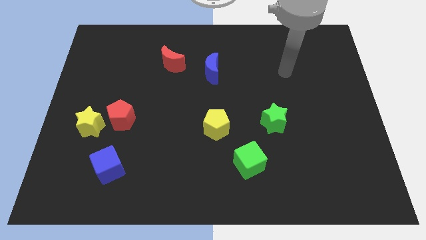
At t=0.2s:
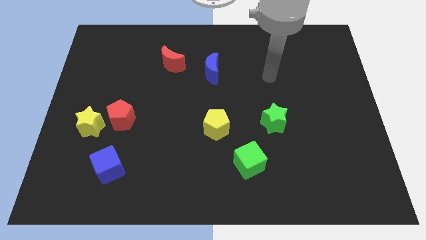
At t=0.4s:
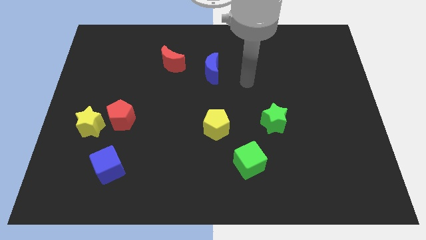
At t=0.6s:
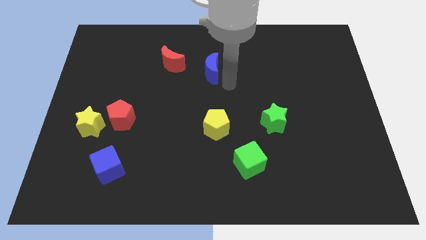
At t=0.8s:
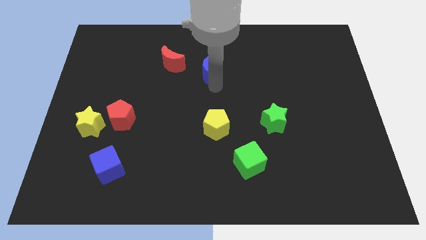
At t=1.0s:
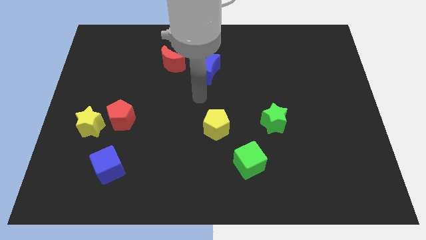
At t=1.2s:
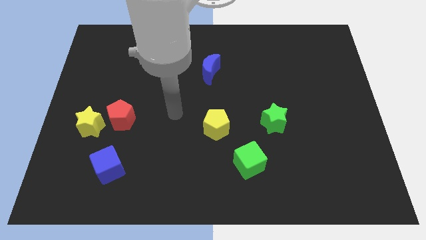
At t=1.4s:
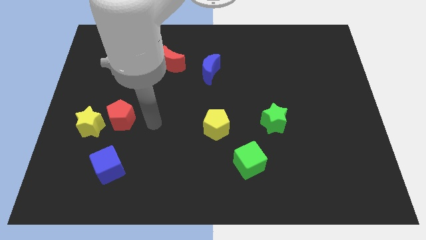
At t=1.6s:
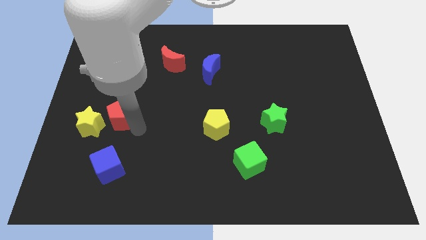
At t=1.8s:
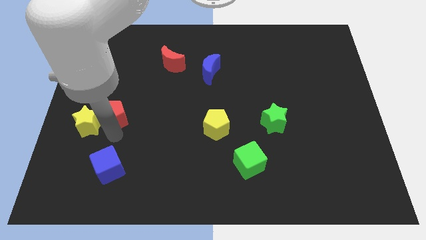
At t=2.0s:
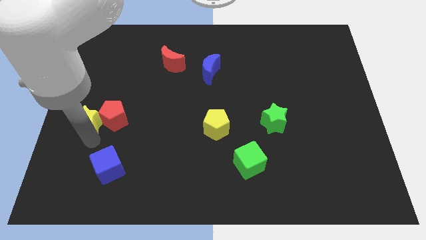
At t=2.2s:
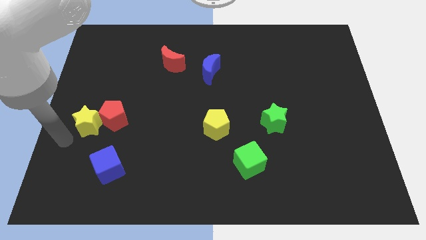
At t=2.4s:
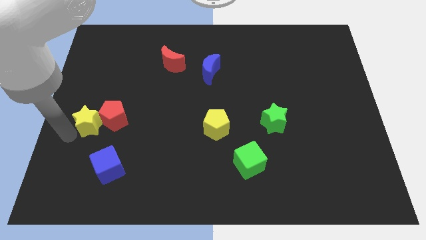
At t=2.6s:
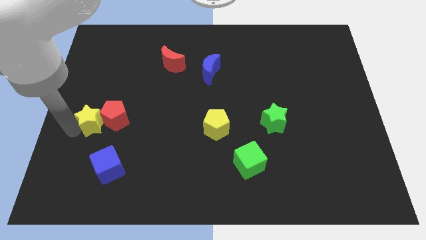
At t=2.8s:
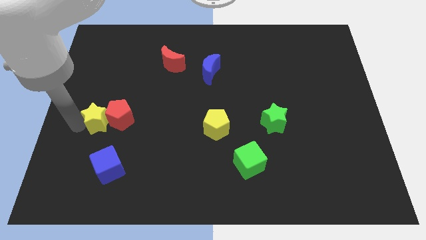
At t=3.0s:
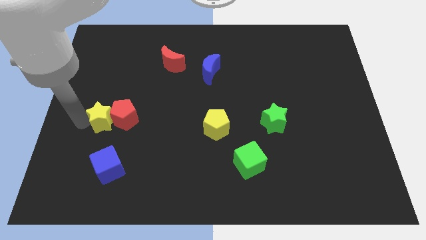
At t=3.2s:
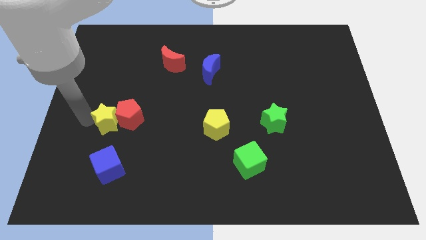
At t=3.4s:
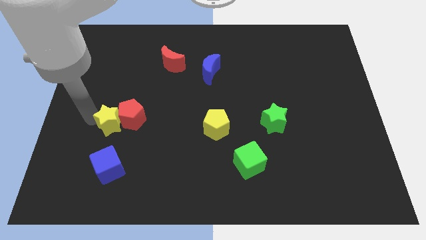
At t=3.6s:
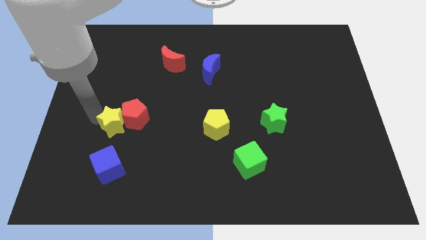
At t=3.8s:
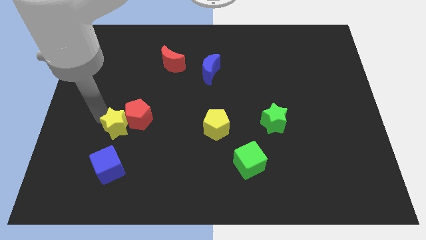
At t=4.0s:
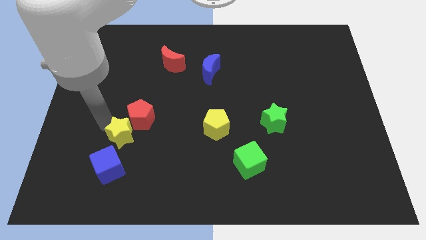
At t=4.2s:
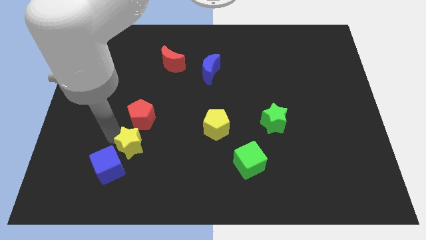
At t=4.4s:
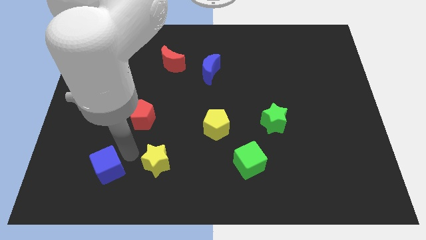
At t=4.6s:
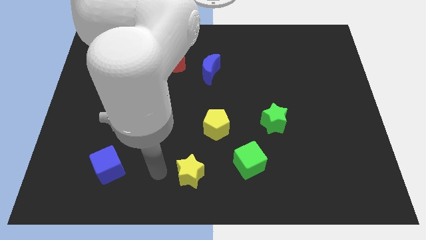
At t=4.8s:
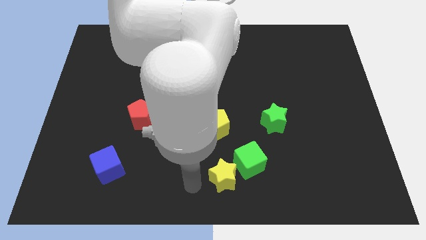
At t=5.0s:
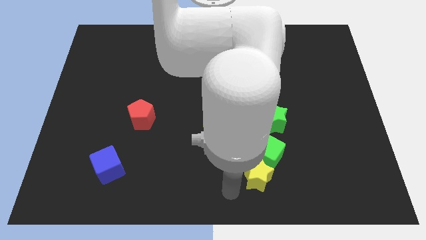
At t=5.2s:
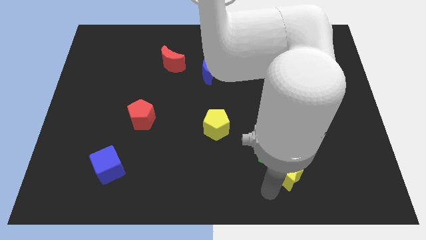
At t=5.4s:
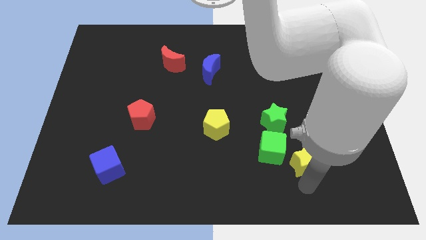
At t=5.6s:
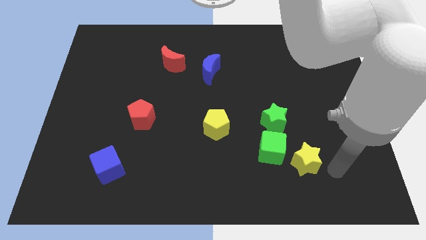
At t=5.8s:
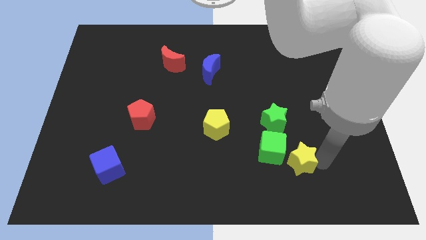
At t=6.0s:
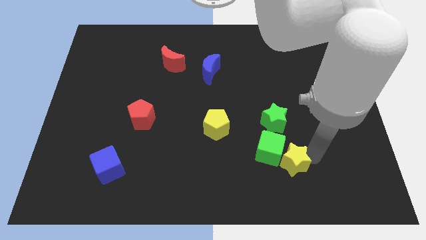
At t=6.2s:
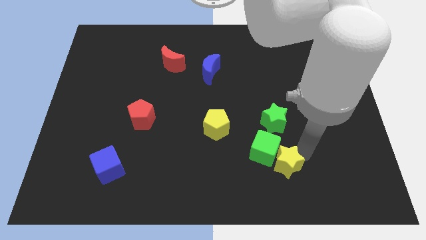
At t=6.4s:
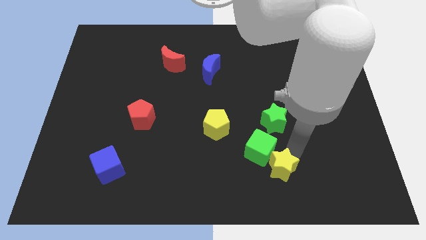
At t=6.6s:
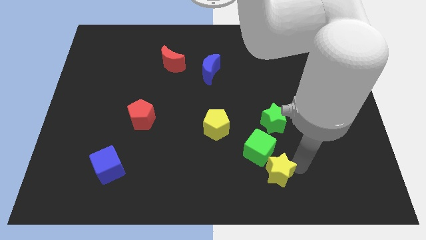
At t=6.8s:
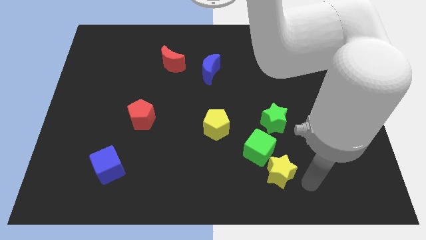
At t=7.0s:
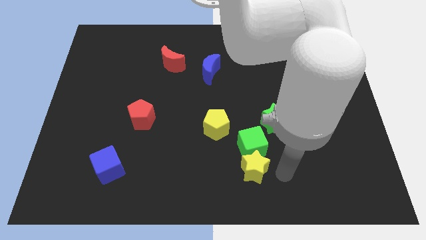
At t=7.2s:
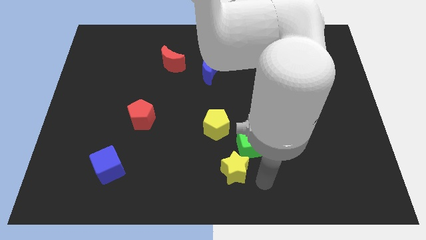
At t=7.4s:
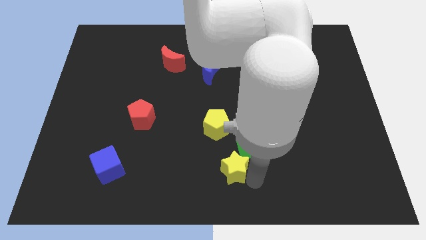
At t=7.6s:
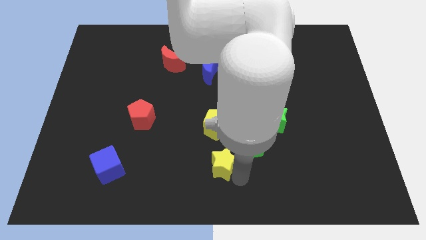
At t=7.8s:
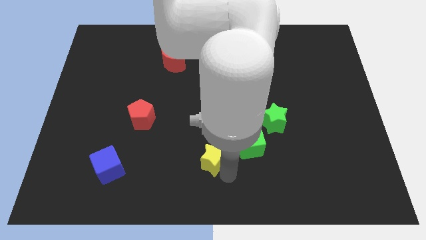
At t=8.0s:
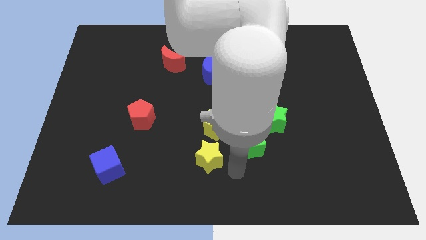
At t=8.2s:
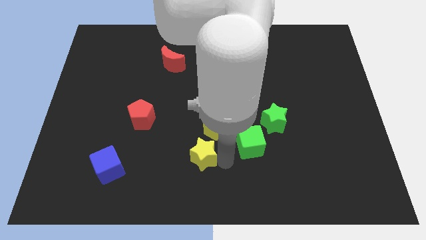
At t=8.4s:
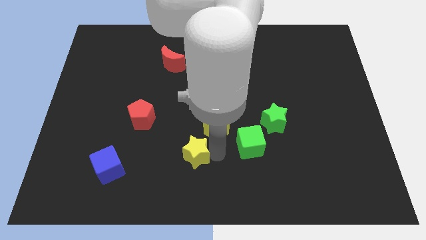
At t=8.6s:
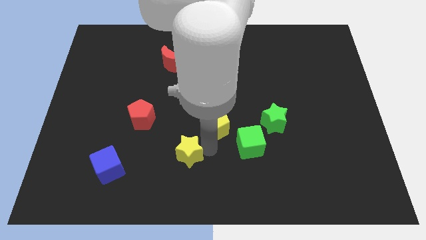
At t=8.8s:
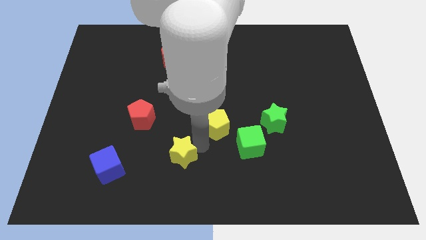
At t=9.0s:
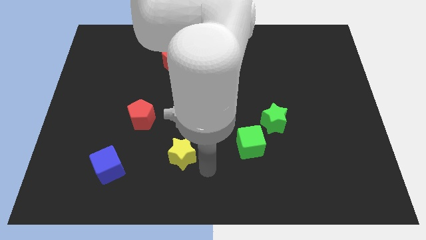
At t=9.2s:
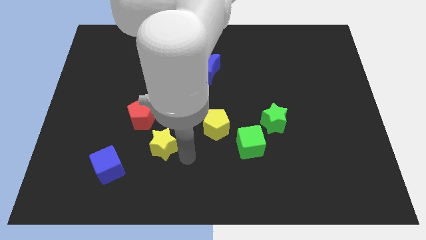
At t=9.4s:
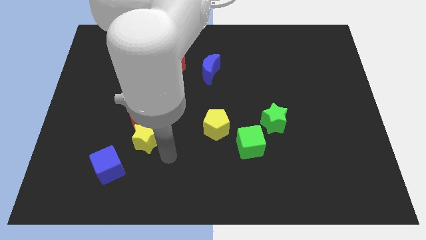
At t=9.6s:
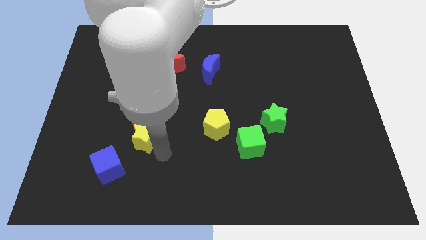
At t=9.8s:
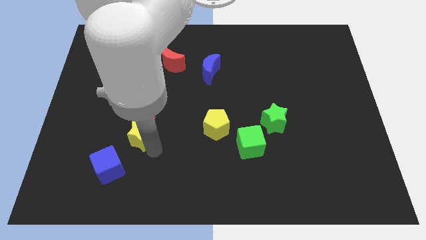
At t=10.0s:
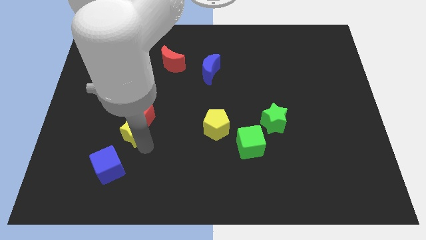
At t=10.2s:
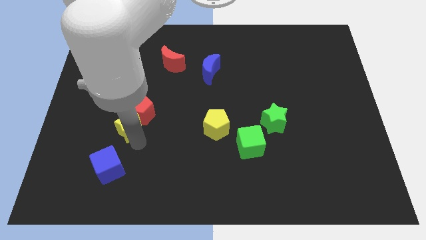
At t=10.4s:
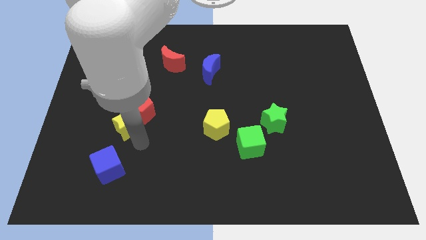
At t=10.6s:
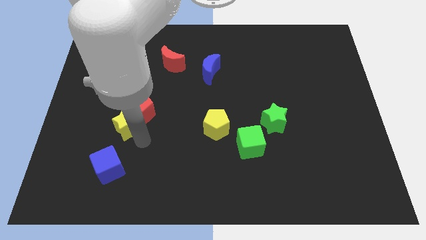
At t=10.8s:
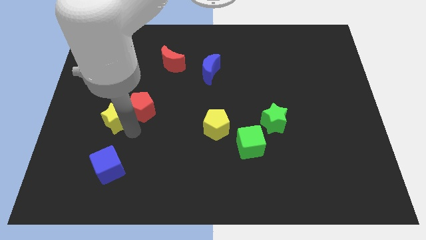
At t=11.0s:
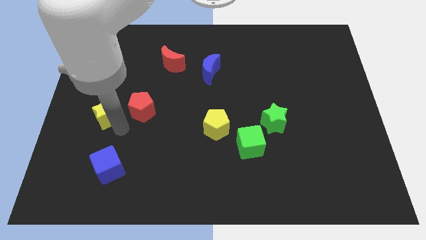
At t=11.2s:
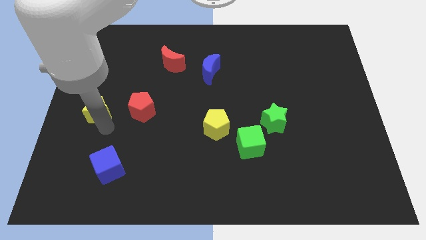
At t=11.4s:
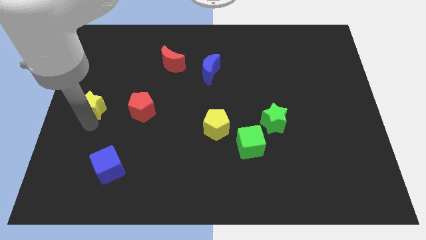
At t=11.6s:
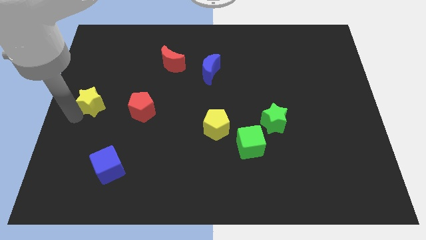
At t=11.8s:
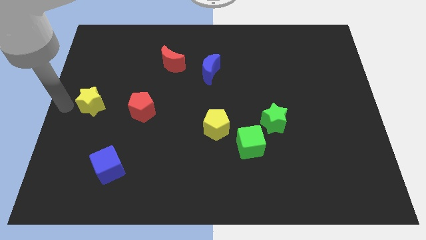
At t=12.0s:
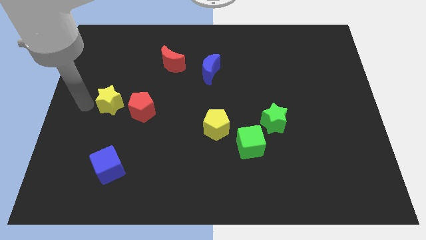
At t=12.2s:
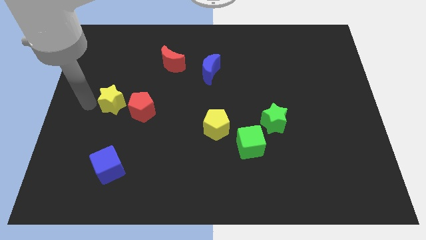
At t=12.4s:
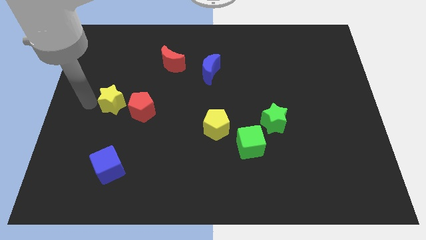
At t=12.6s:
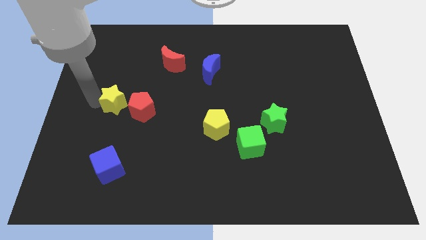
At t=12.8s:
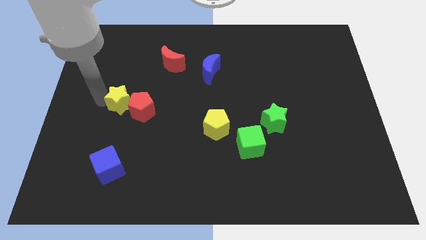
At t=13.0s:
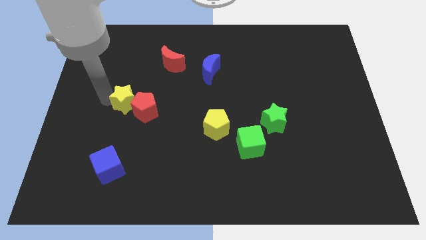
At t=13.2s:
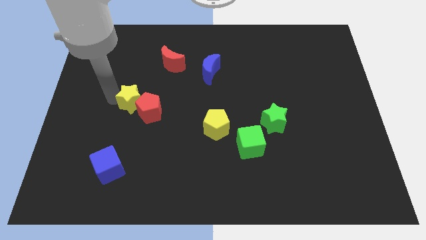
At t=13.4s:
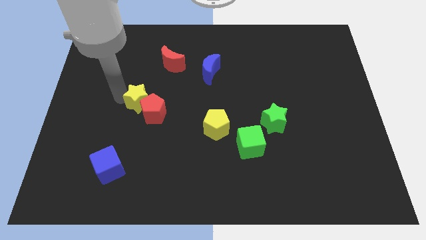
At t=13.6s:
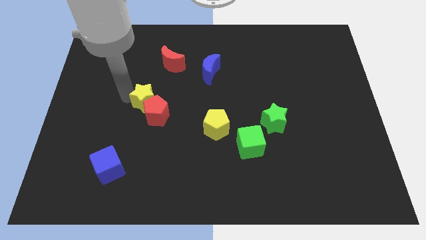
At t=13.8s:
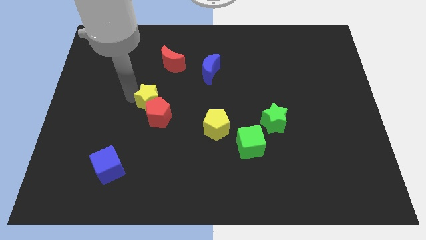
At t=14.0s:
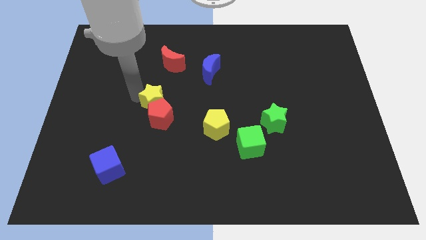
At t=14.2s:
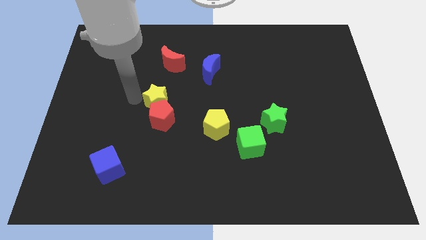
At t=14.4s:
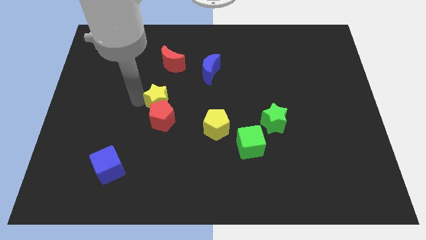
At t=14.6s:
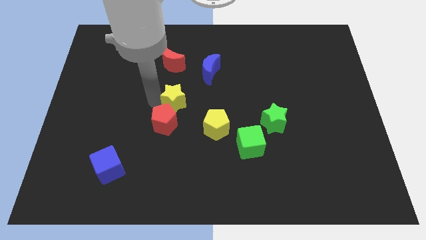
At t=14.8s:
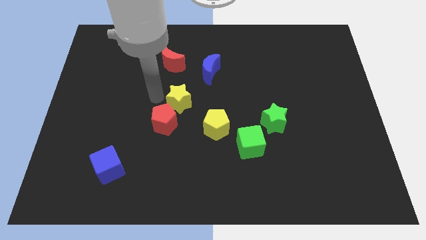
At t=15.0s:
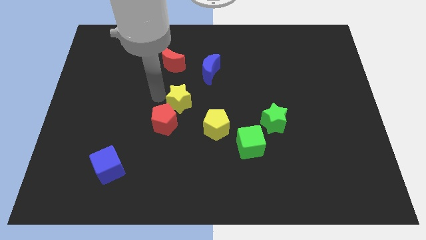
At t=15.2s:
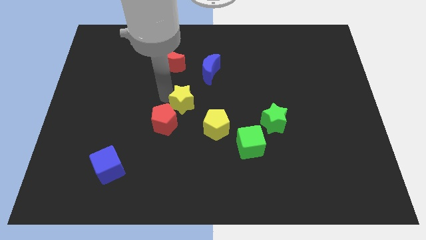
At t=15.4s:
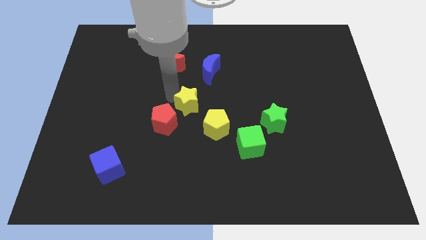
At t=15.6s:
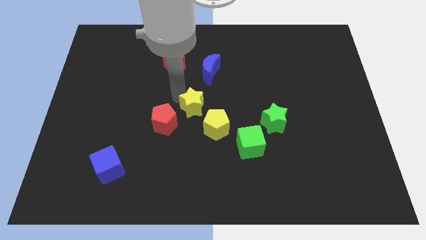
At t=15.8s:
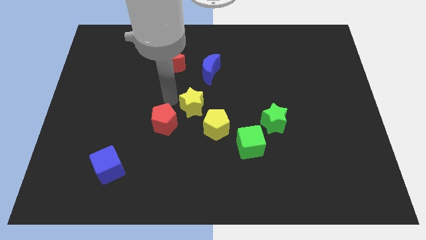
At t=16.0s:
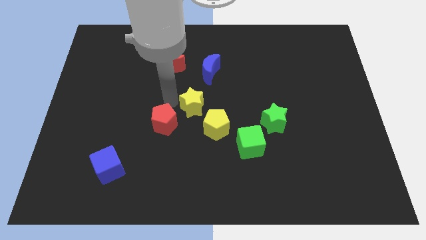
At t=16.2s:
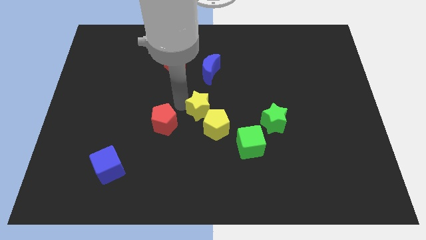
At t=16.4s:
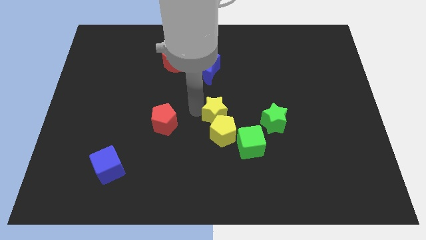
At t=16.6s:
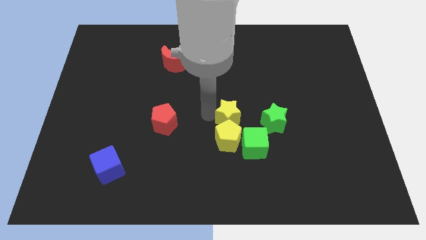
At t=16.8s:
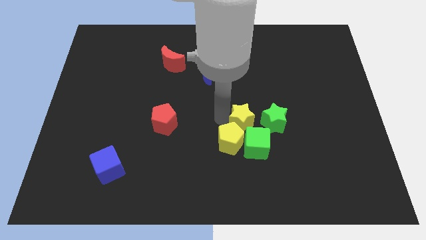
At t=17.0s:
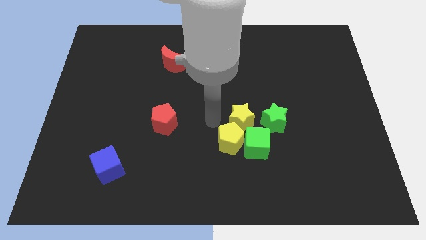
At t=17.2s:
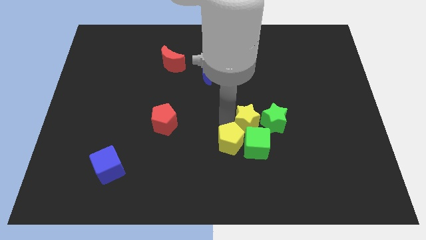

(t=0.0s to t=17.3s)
move the yellow star to the green star
